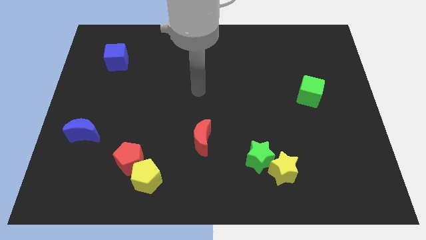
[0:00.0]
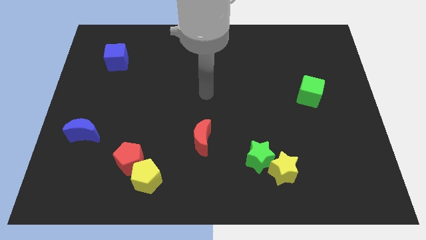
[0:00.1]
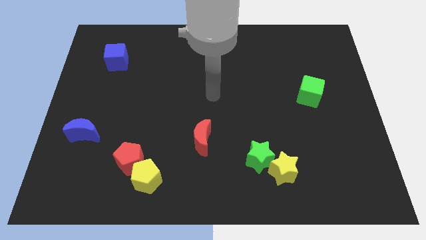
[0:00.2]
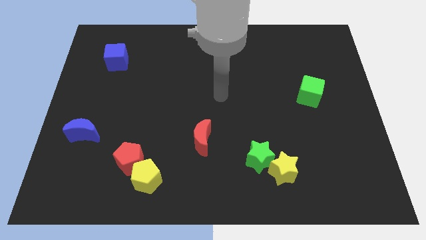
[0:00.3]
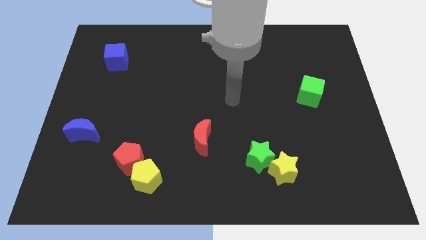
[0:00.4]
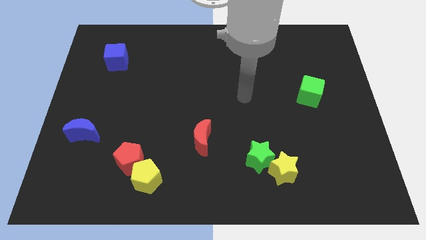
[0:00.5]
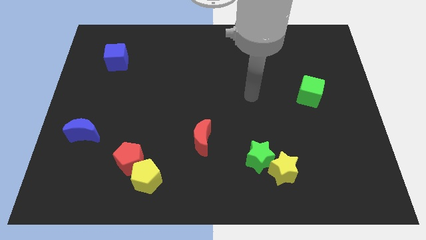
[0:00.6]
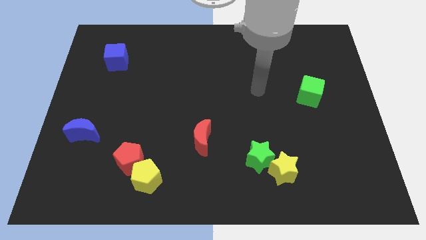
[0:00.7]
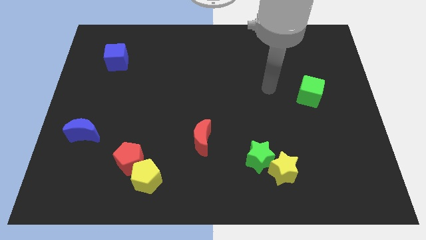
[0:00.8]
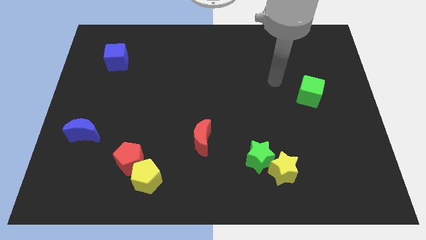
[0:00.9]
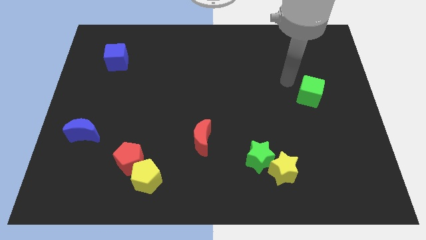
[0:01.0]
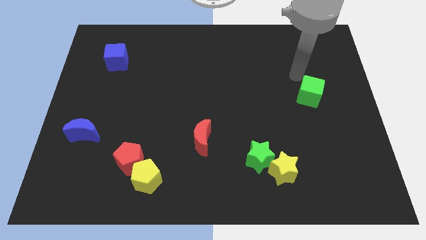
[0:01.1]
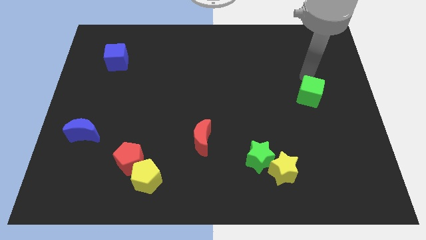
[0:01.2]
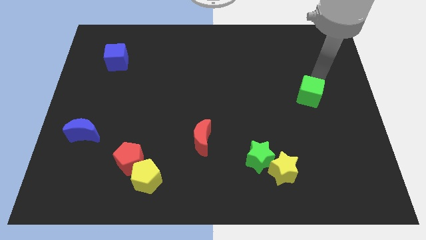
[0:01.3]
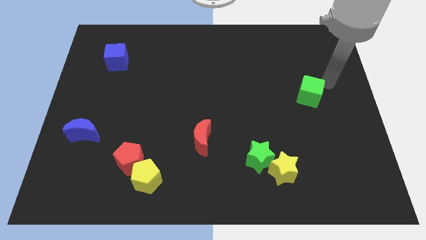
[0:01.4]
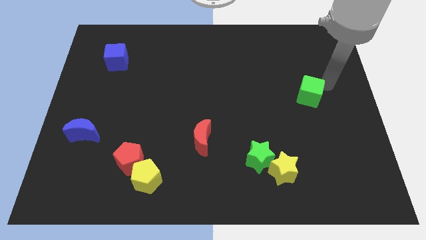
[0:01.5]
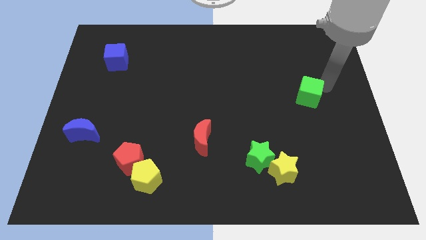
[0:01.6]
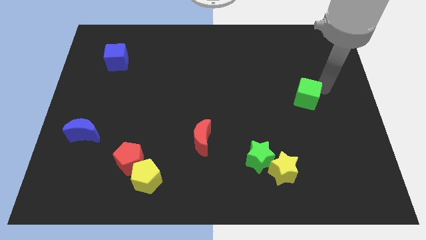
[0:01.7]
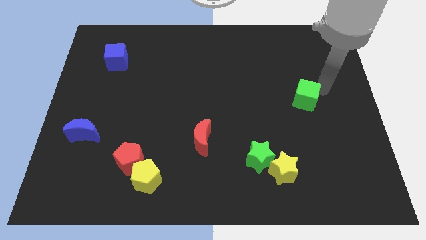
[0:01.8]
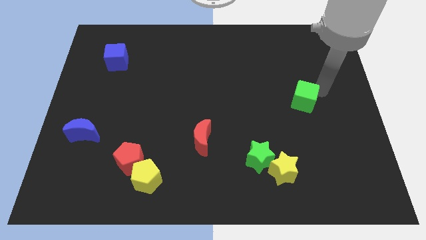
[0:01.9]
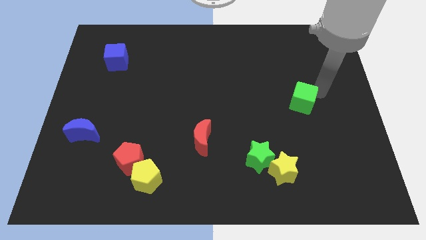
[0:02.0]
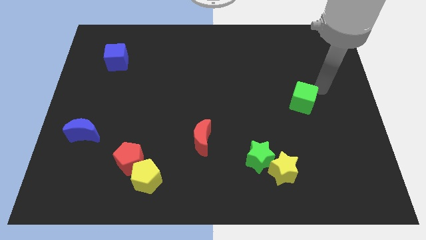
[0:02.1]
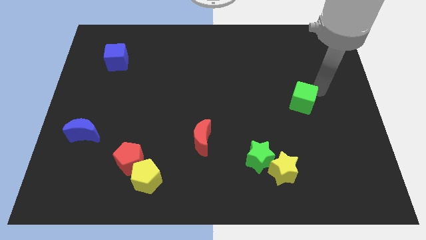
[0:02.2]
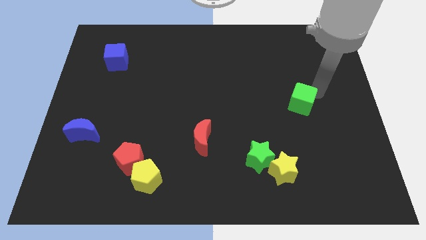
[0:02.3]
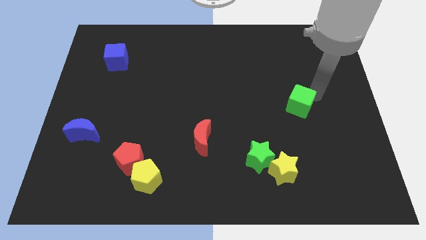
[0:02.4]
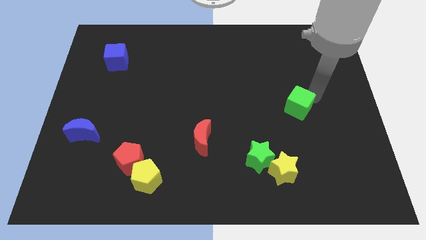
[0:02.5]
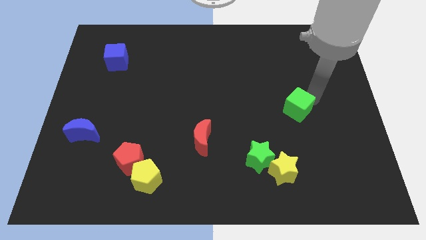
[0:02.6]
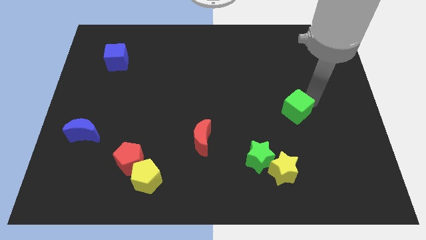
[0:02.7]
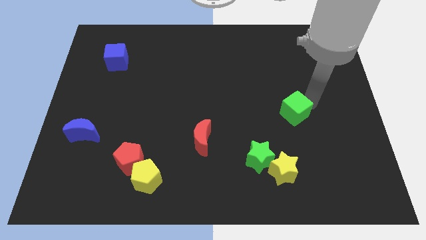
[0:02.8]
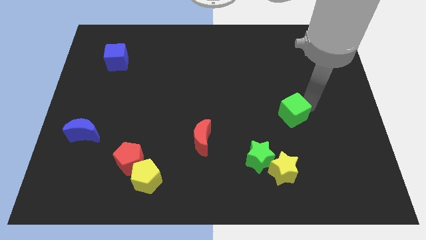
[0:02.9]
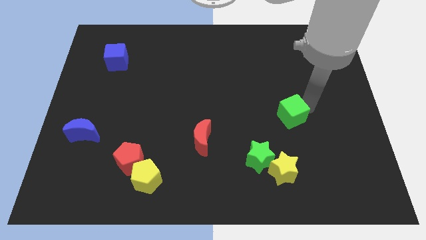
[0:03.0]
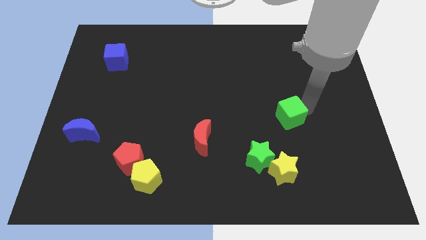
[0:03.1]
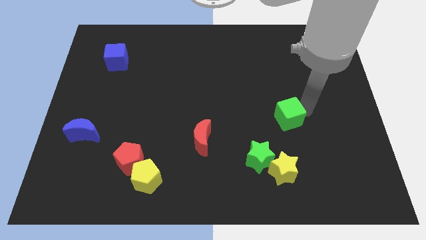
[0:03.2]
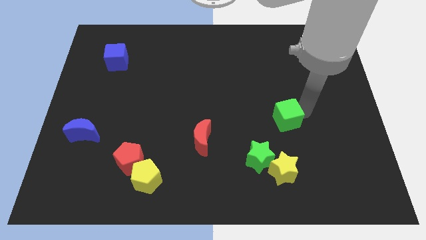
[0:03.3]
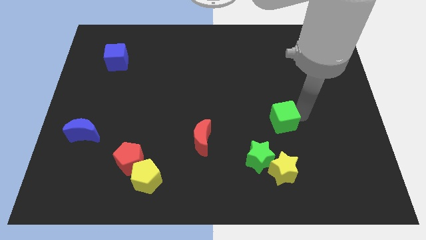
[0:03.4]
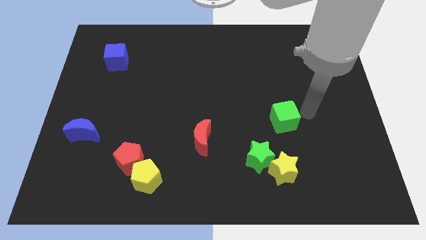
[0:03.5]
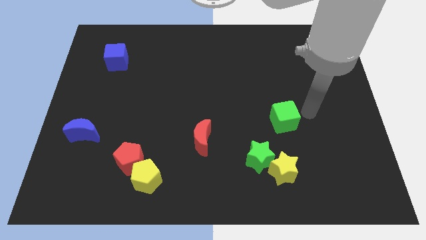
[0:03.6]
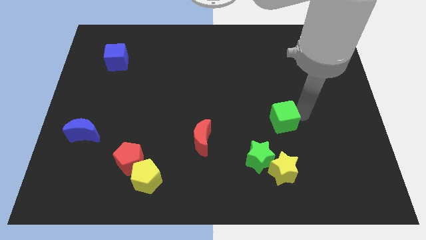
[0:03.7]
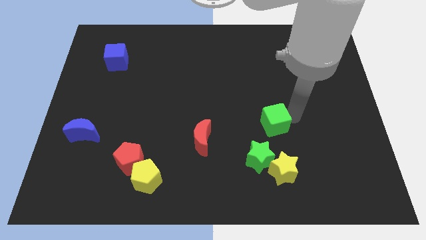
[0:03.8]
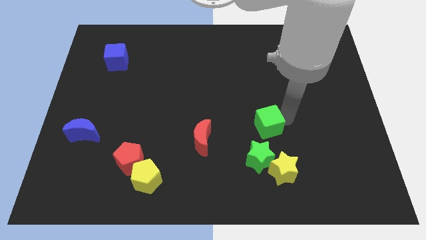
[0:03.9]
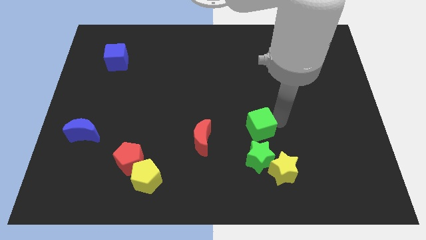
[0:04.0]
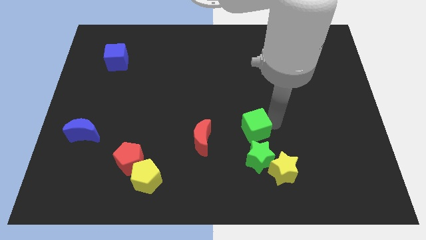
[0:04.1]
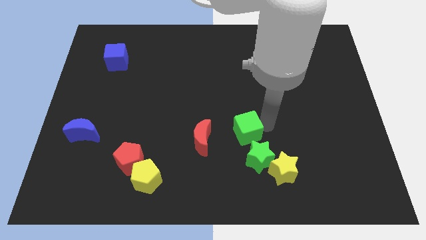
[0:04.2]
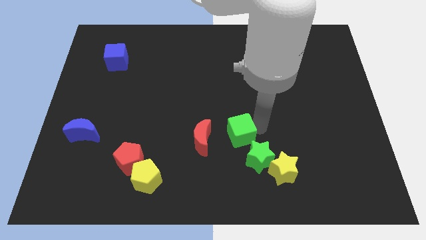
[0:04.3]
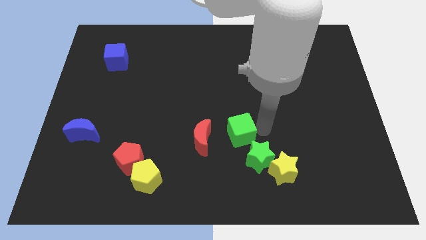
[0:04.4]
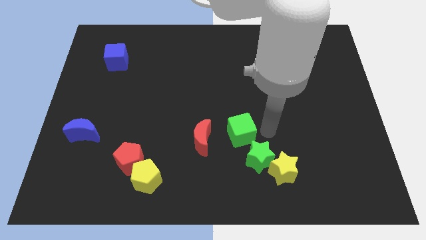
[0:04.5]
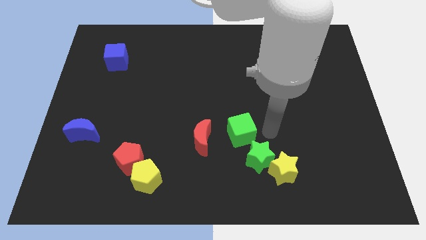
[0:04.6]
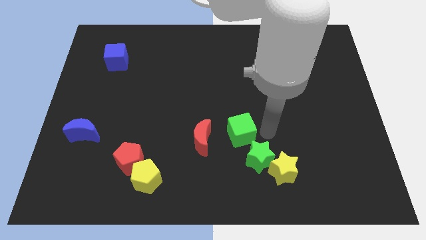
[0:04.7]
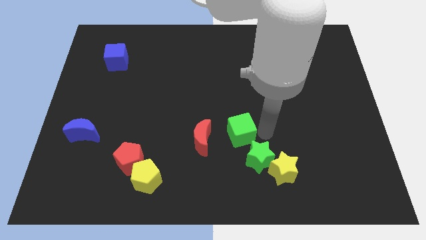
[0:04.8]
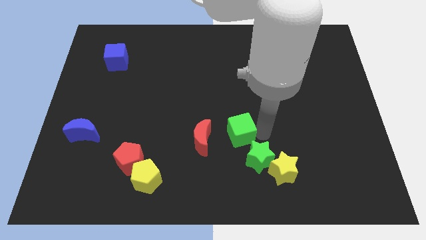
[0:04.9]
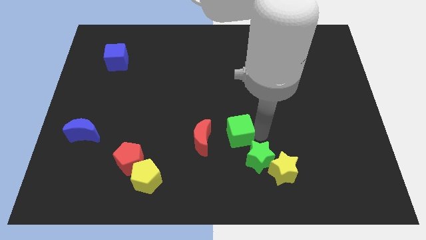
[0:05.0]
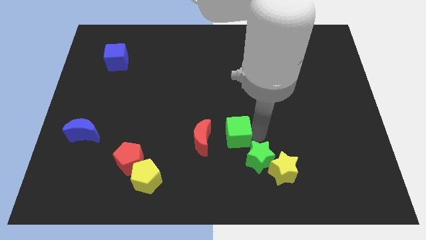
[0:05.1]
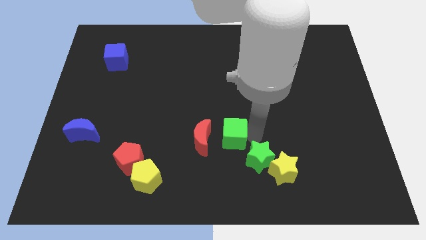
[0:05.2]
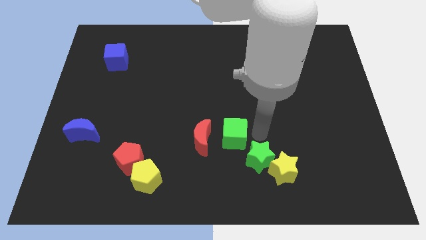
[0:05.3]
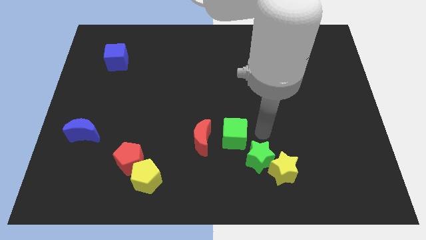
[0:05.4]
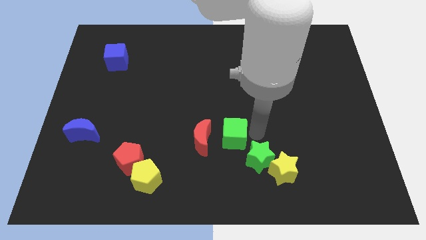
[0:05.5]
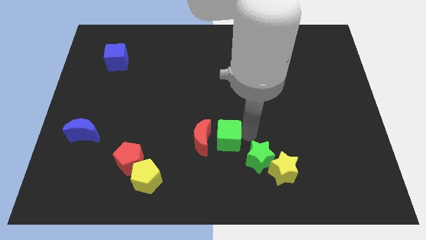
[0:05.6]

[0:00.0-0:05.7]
put the green cube close to the red moon
